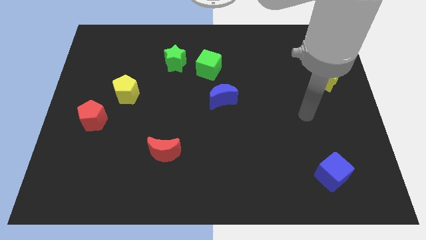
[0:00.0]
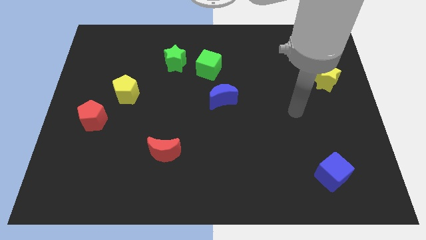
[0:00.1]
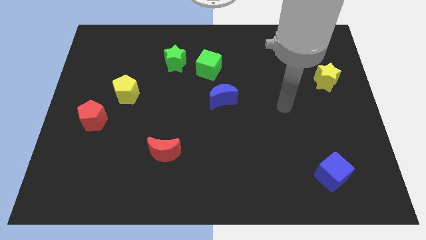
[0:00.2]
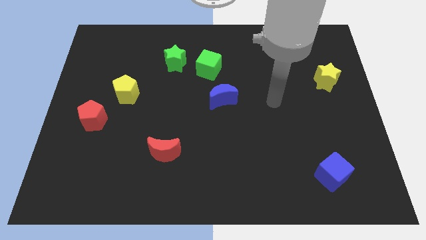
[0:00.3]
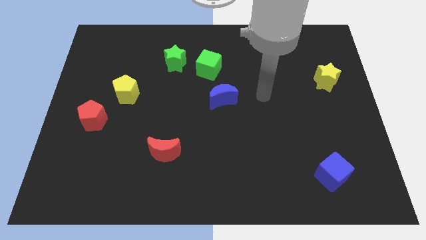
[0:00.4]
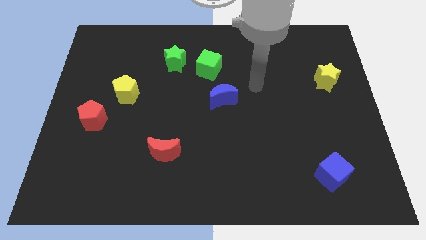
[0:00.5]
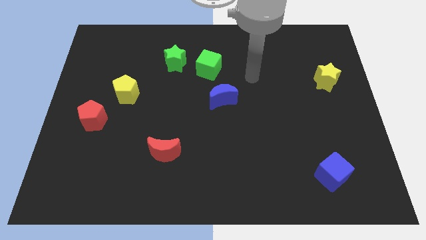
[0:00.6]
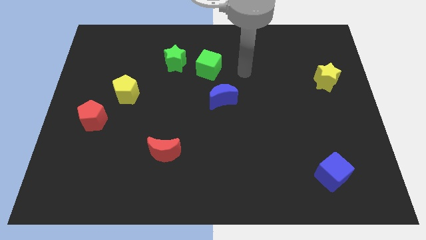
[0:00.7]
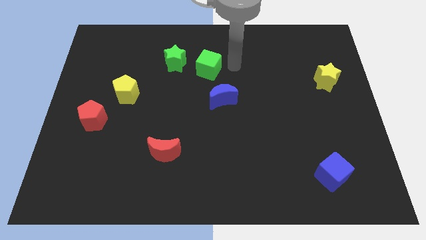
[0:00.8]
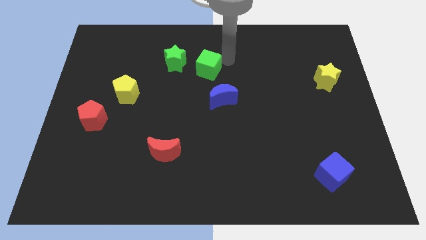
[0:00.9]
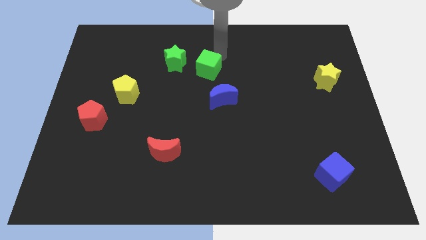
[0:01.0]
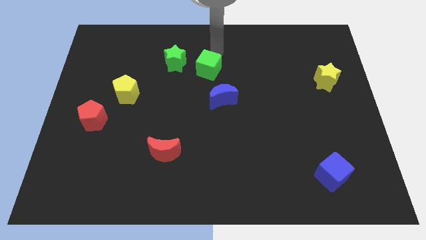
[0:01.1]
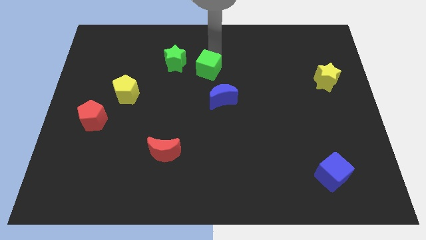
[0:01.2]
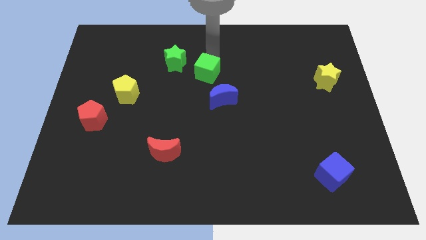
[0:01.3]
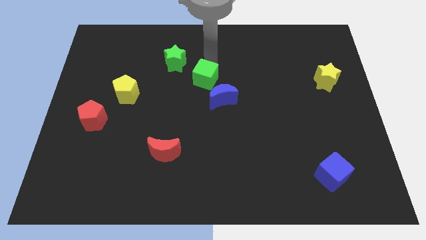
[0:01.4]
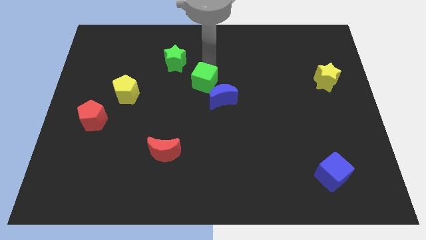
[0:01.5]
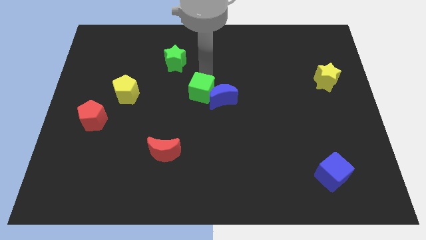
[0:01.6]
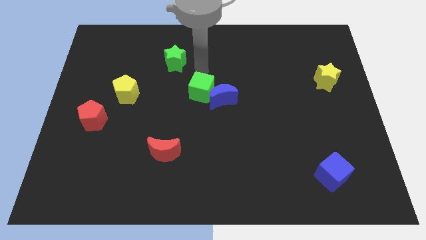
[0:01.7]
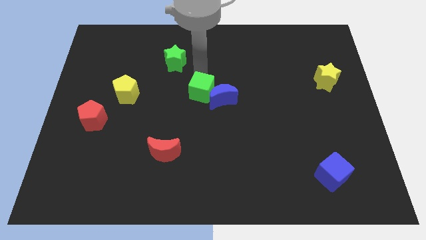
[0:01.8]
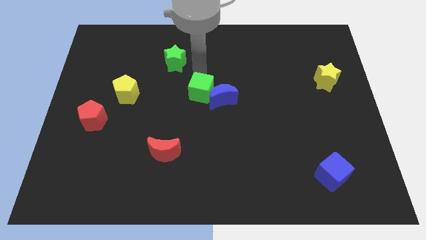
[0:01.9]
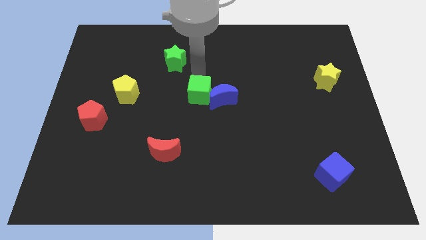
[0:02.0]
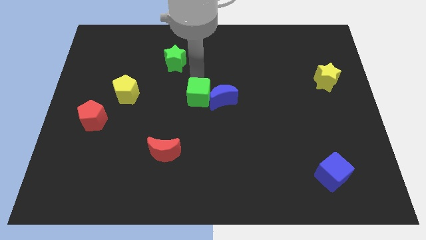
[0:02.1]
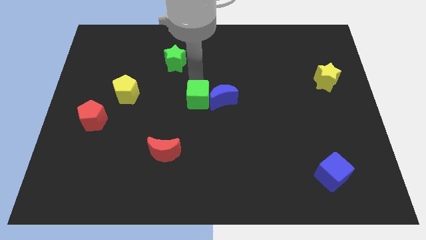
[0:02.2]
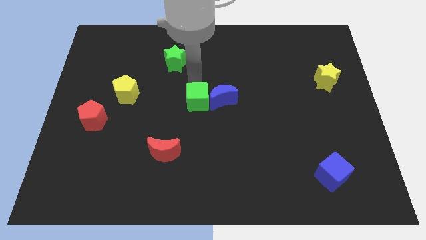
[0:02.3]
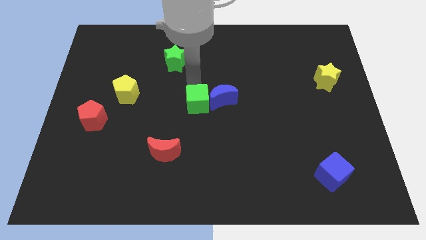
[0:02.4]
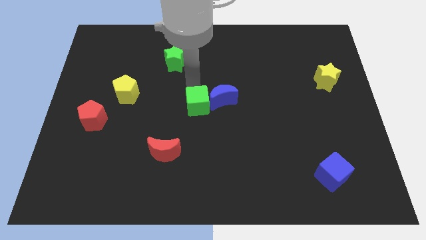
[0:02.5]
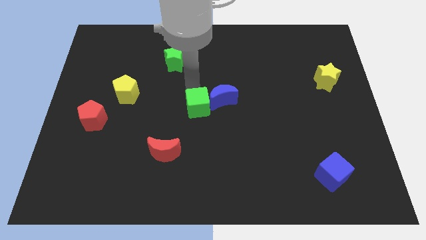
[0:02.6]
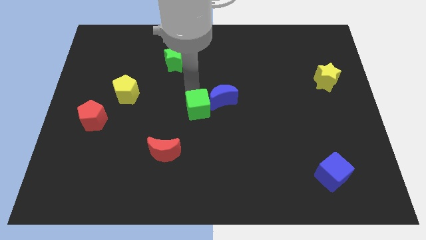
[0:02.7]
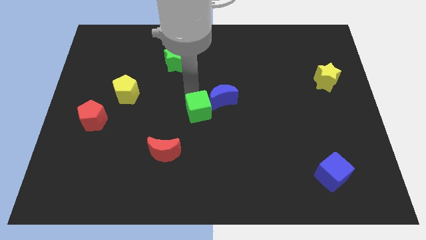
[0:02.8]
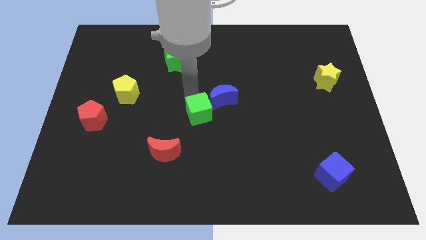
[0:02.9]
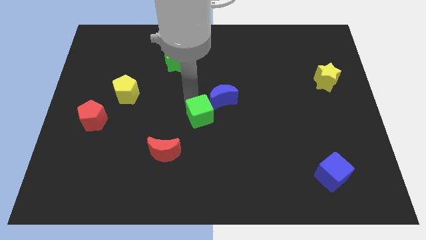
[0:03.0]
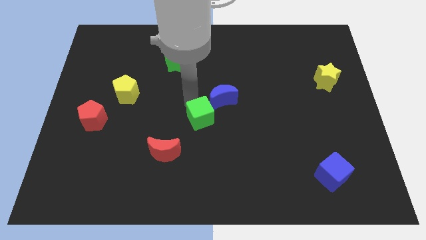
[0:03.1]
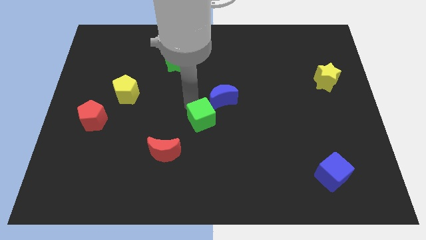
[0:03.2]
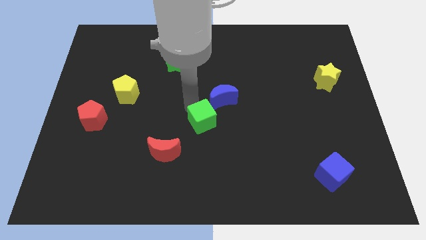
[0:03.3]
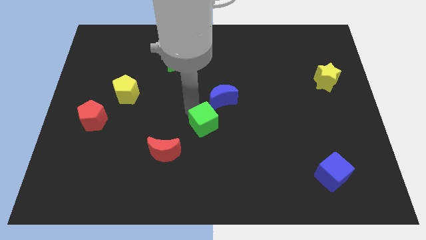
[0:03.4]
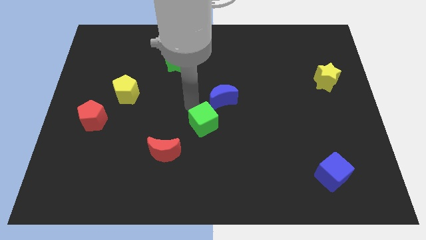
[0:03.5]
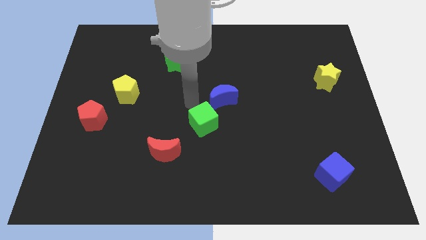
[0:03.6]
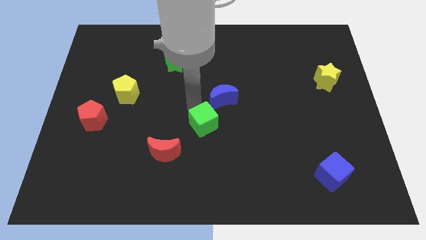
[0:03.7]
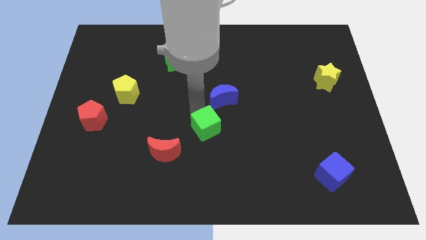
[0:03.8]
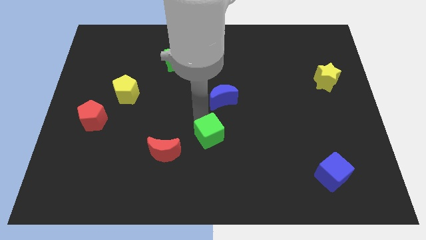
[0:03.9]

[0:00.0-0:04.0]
move the green cube down

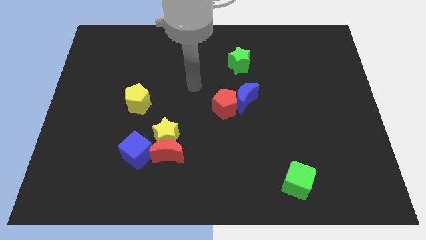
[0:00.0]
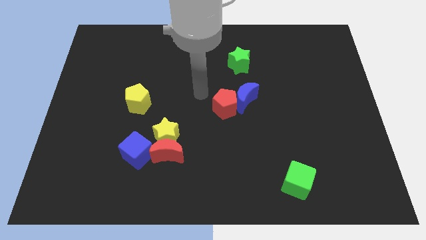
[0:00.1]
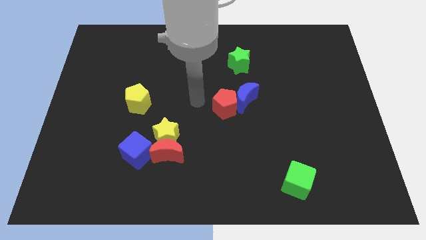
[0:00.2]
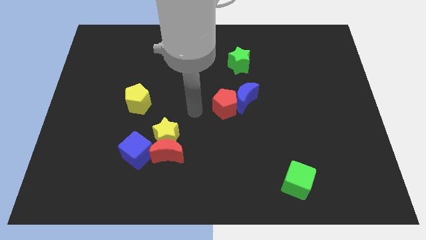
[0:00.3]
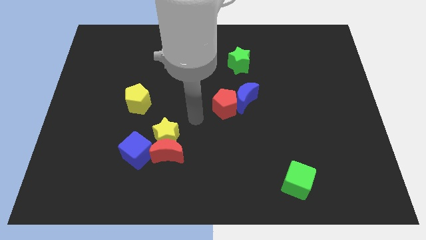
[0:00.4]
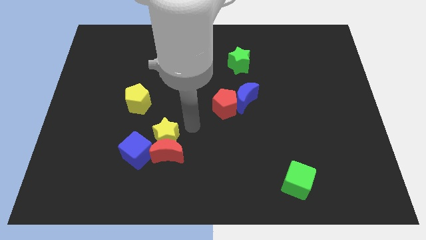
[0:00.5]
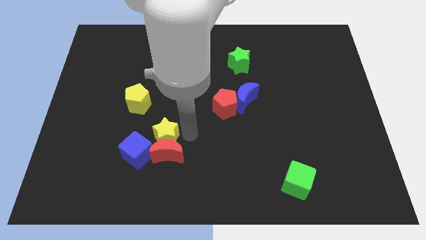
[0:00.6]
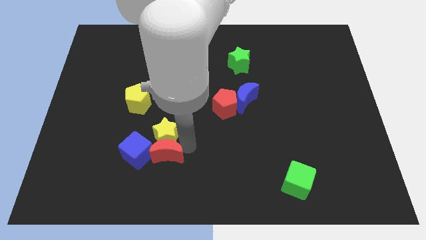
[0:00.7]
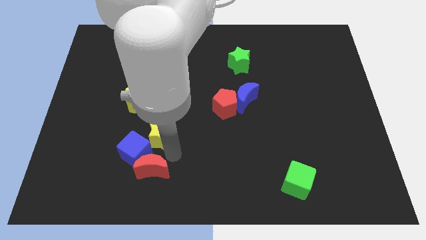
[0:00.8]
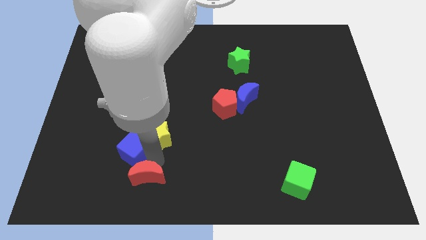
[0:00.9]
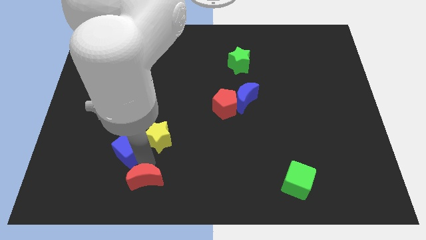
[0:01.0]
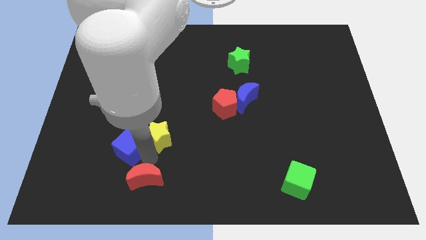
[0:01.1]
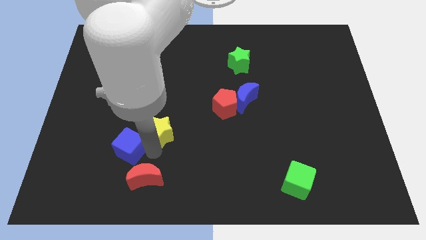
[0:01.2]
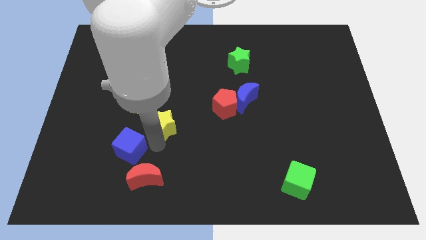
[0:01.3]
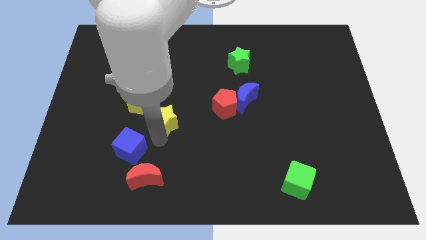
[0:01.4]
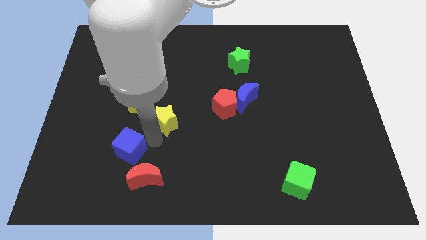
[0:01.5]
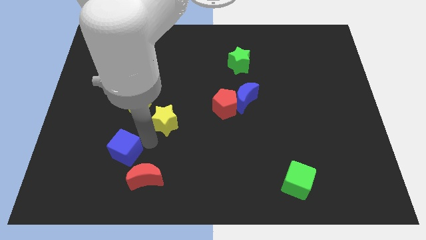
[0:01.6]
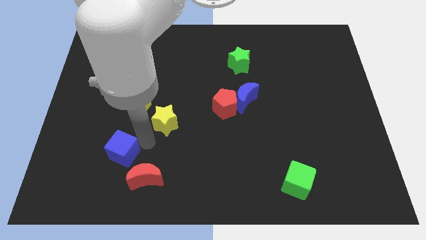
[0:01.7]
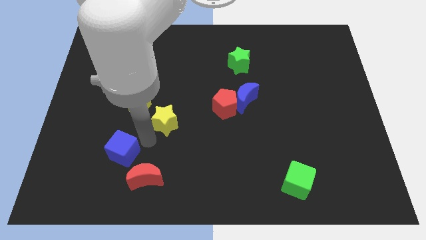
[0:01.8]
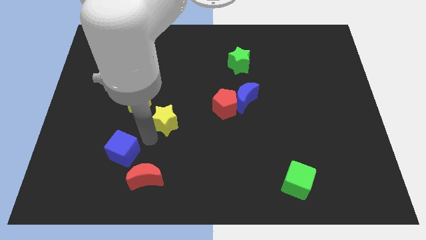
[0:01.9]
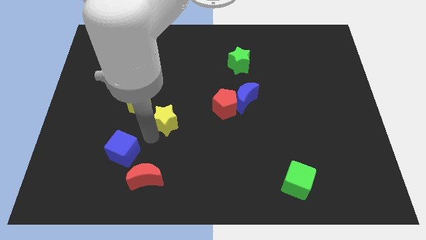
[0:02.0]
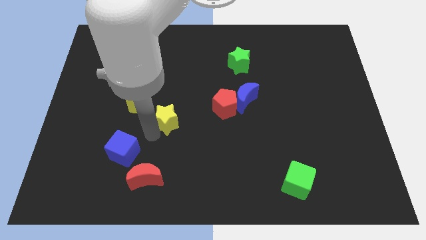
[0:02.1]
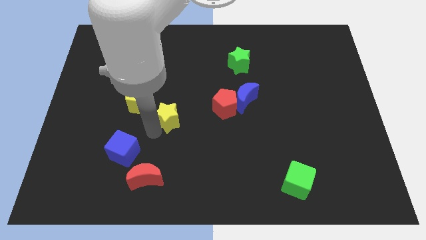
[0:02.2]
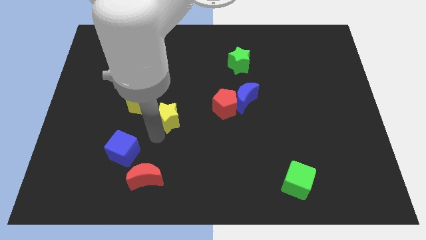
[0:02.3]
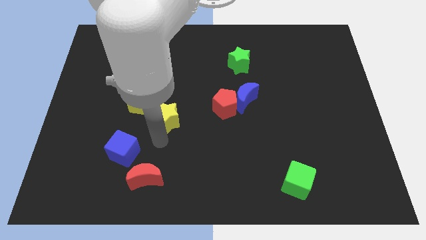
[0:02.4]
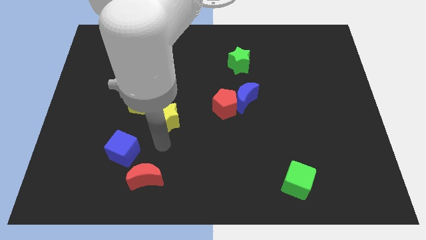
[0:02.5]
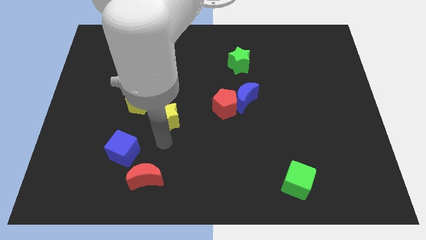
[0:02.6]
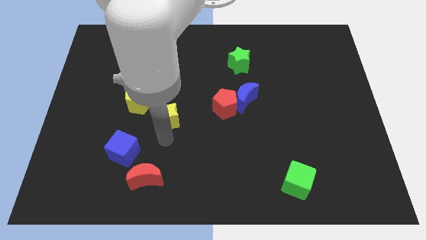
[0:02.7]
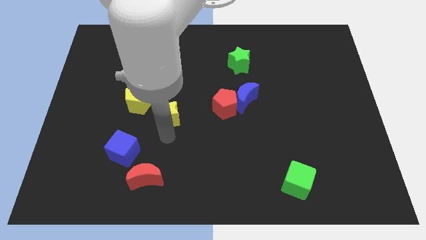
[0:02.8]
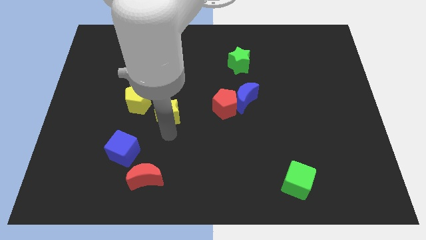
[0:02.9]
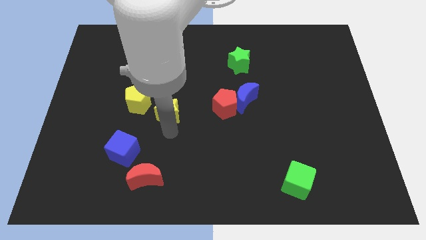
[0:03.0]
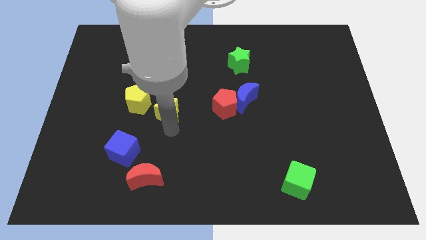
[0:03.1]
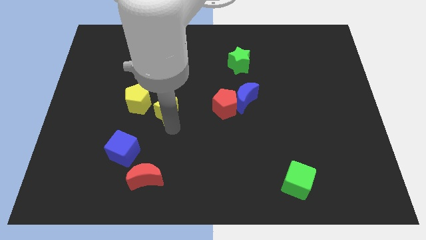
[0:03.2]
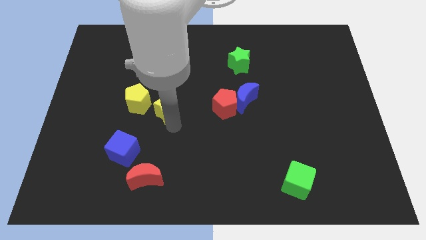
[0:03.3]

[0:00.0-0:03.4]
slide the yellow star up somewhat

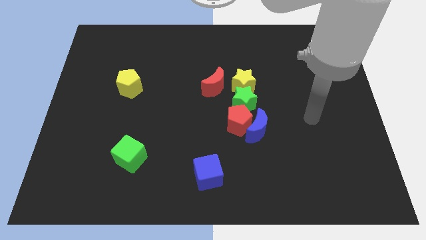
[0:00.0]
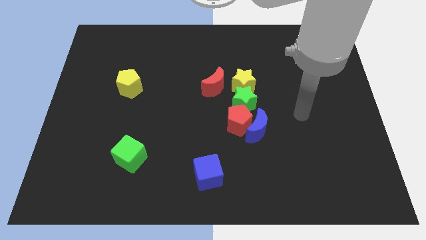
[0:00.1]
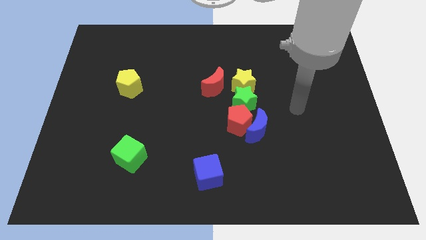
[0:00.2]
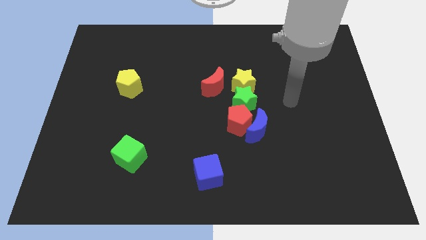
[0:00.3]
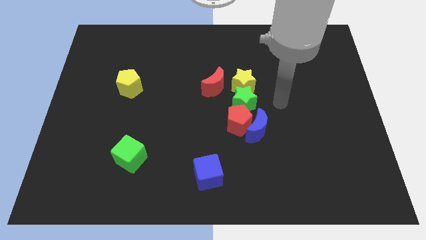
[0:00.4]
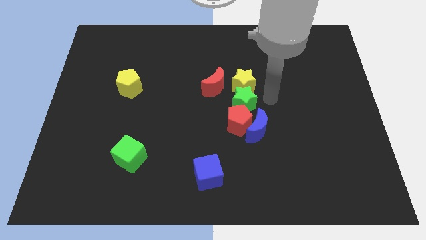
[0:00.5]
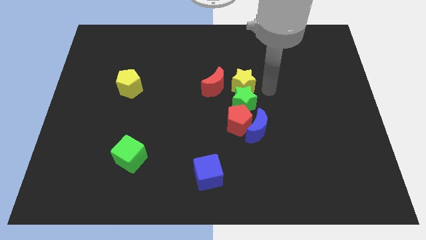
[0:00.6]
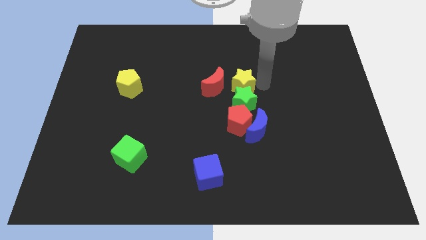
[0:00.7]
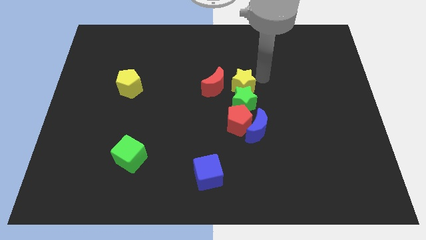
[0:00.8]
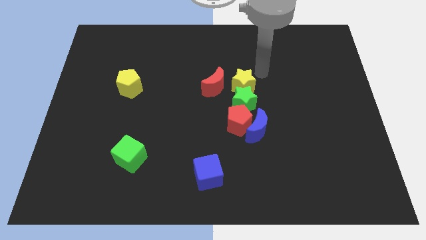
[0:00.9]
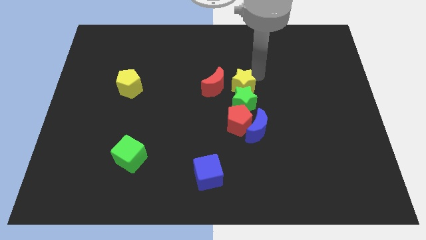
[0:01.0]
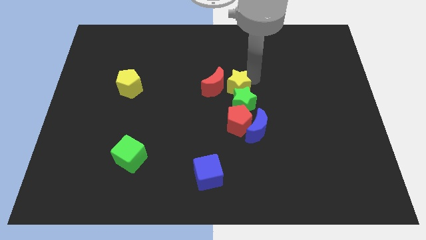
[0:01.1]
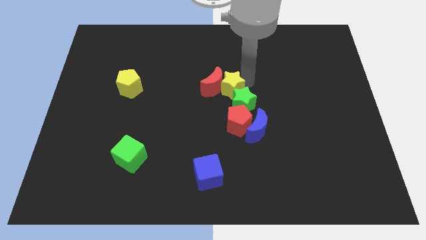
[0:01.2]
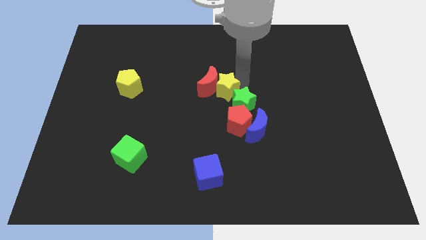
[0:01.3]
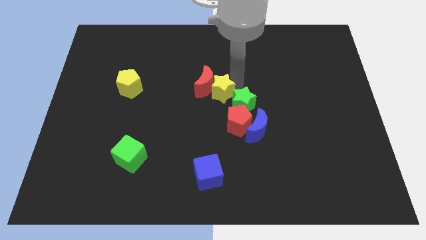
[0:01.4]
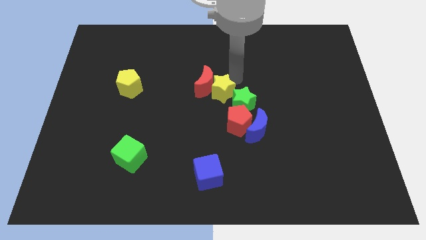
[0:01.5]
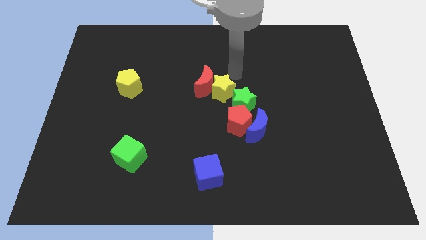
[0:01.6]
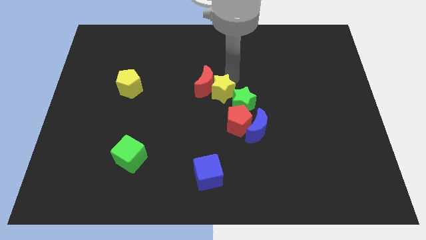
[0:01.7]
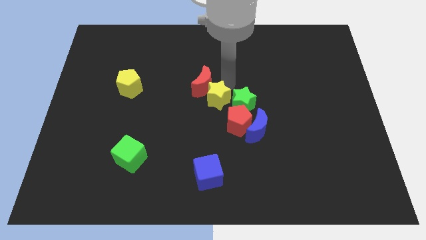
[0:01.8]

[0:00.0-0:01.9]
slightly slide the yellow star diagonally down and left
